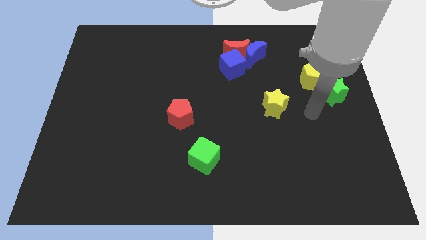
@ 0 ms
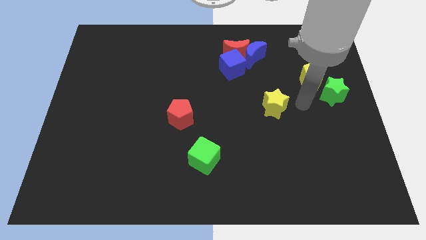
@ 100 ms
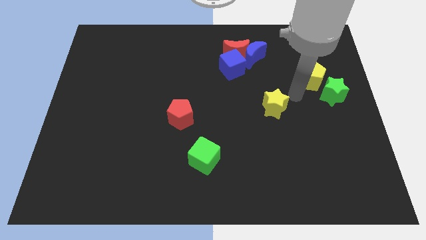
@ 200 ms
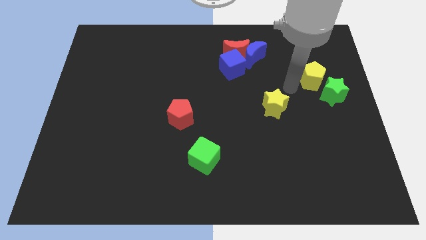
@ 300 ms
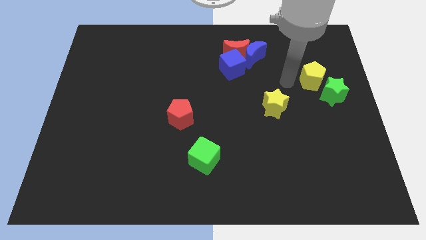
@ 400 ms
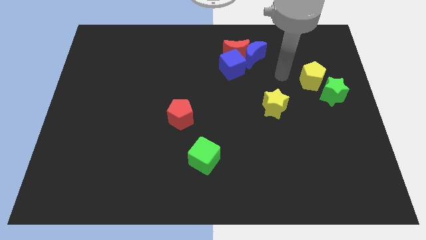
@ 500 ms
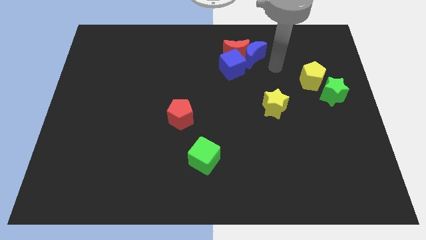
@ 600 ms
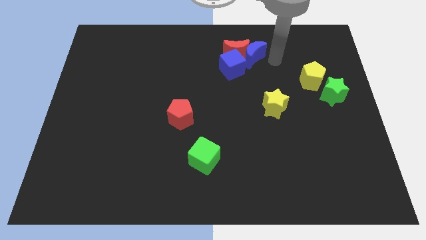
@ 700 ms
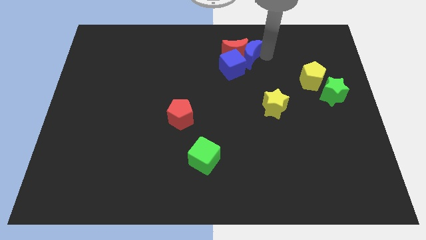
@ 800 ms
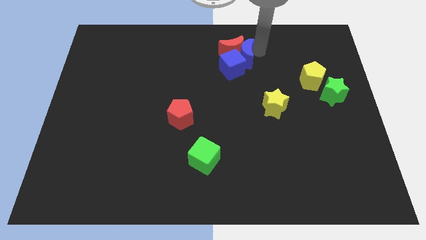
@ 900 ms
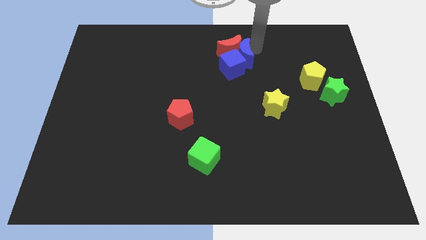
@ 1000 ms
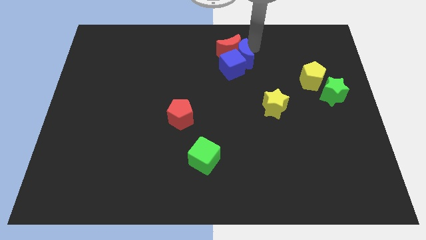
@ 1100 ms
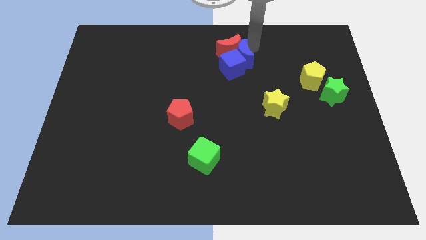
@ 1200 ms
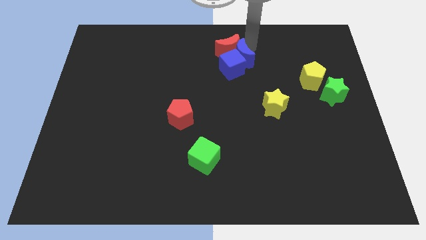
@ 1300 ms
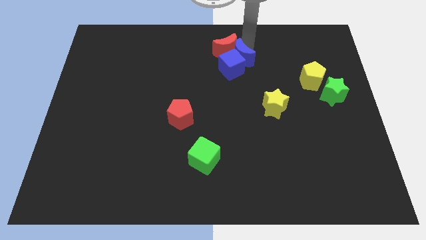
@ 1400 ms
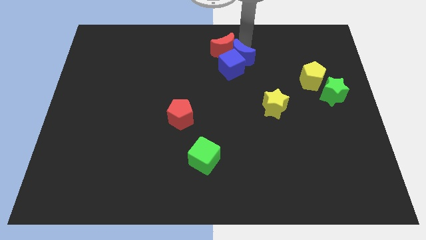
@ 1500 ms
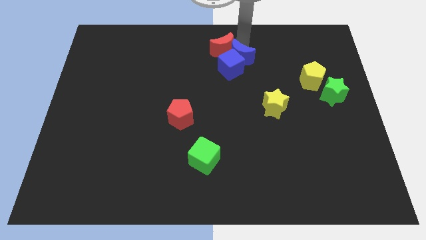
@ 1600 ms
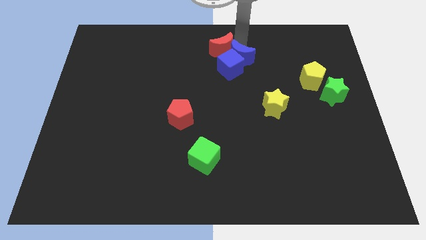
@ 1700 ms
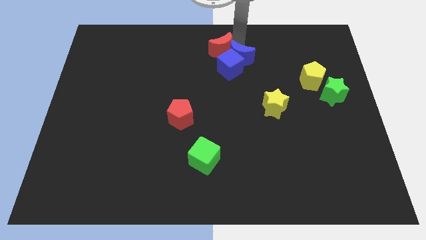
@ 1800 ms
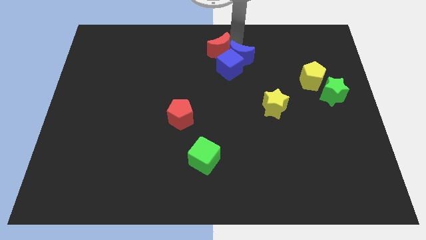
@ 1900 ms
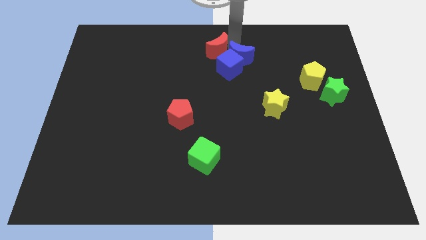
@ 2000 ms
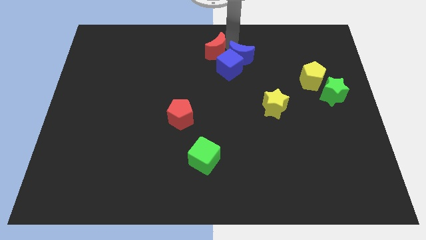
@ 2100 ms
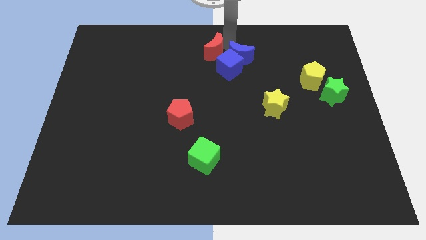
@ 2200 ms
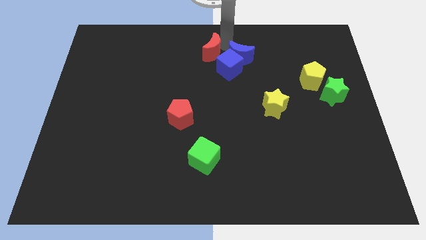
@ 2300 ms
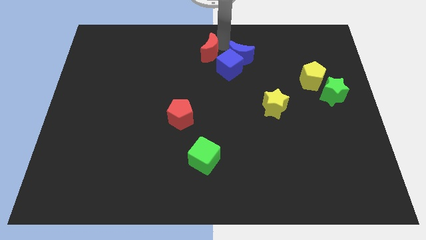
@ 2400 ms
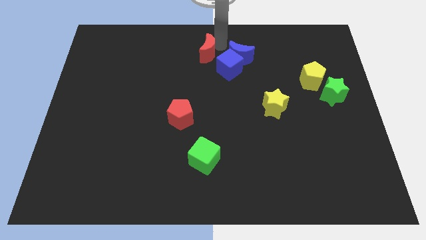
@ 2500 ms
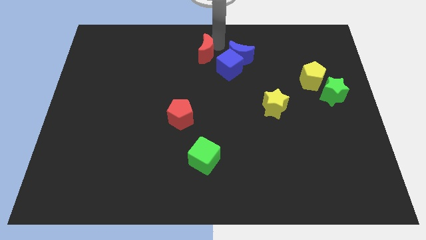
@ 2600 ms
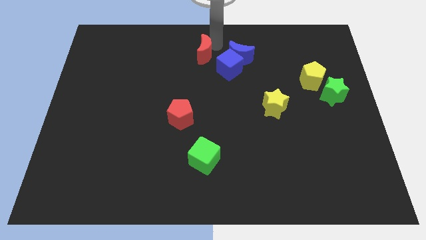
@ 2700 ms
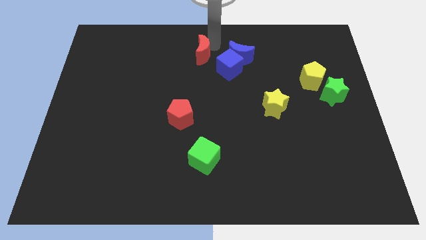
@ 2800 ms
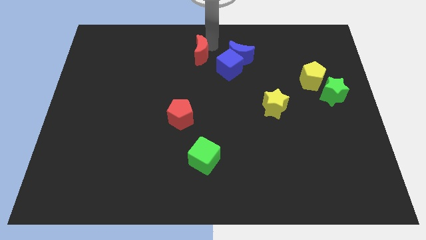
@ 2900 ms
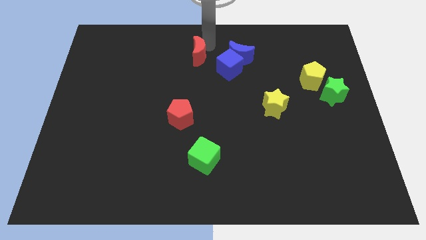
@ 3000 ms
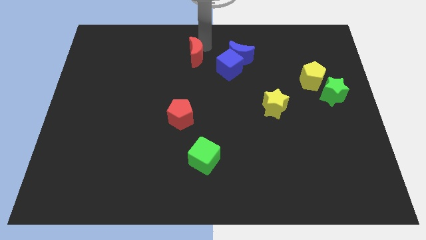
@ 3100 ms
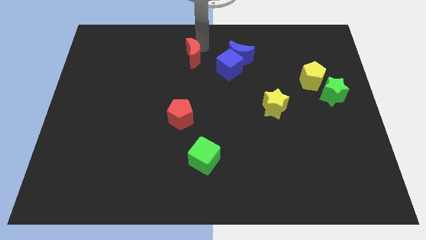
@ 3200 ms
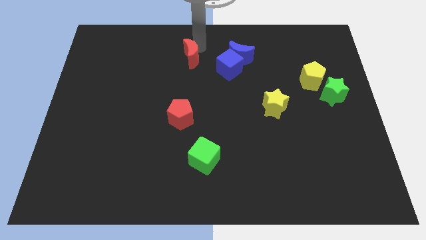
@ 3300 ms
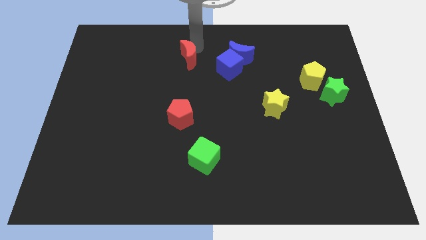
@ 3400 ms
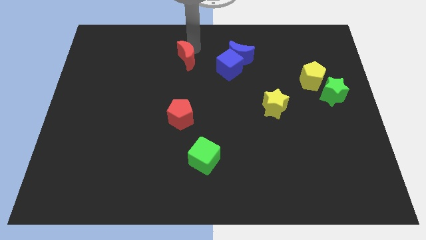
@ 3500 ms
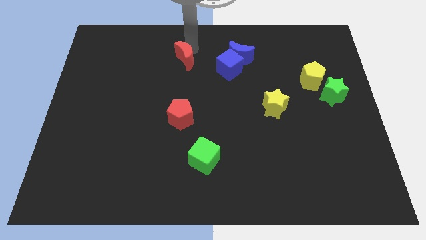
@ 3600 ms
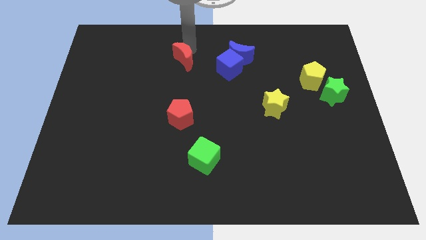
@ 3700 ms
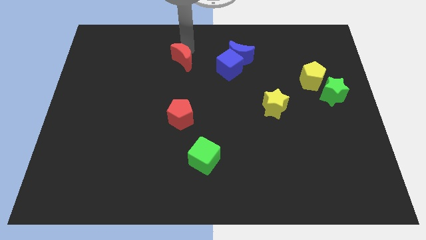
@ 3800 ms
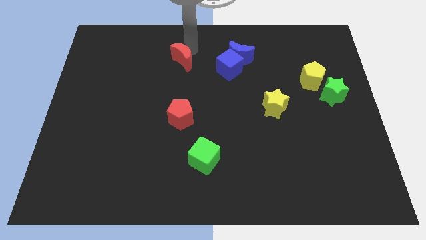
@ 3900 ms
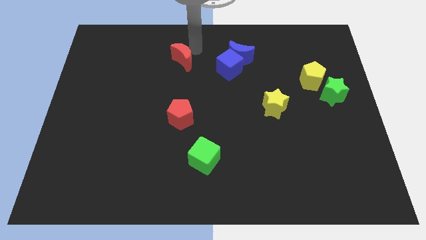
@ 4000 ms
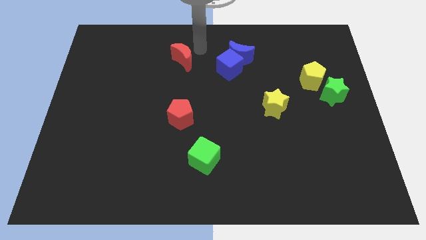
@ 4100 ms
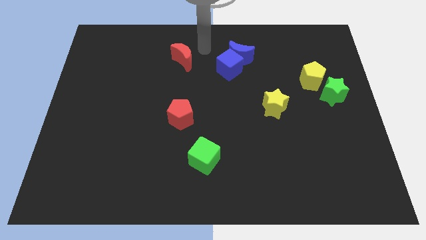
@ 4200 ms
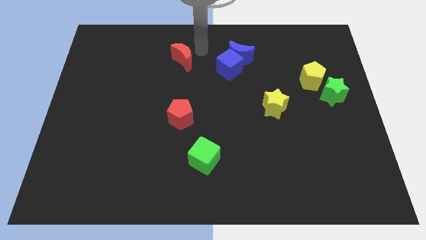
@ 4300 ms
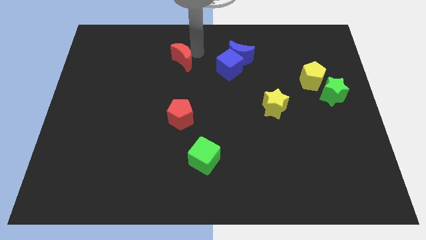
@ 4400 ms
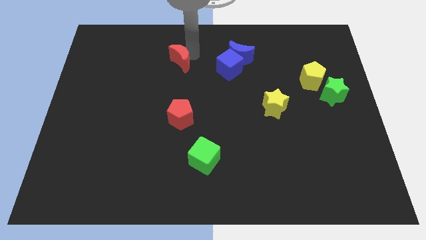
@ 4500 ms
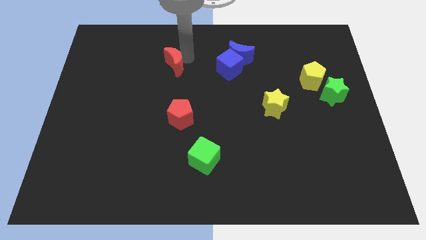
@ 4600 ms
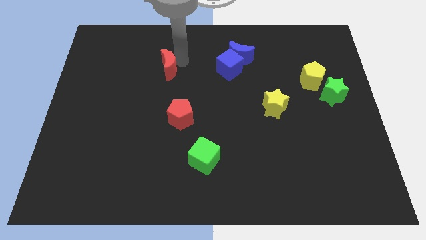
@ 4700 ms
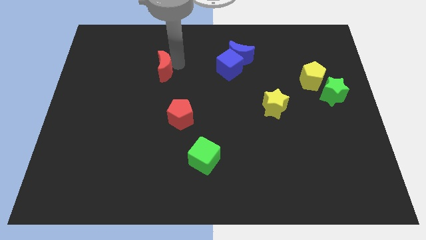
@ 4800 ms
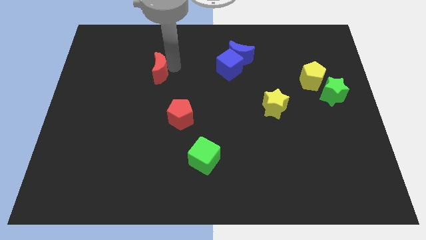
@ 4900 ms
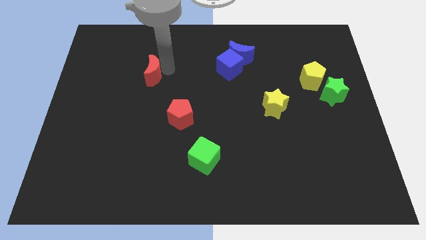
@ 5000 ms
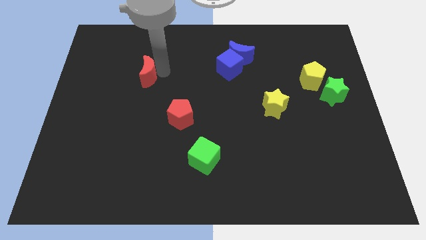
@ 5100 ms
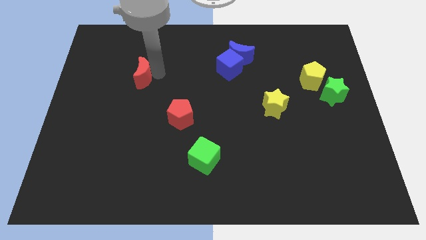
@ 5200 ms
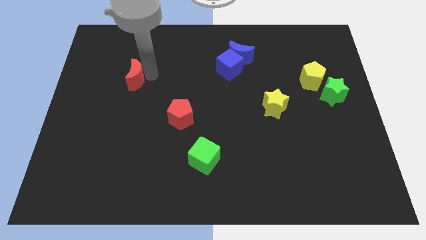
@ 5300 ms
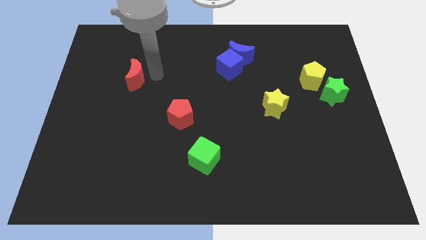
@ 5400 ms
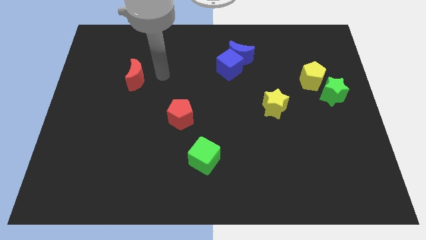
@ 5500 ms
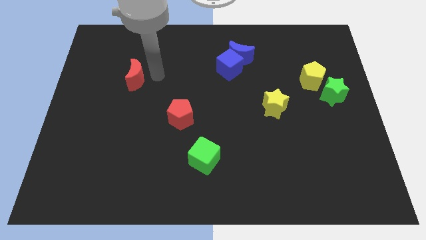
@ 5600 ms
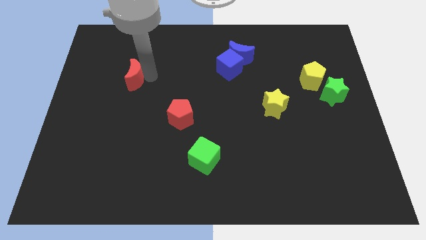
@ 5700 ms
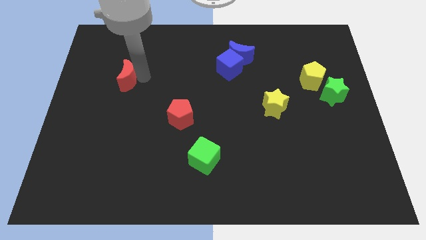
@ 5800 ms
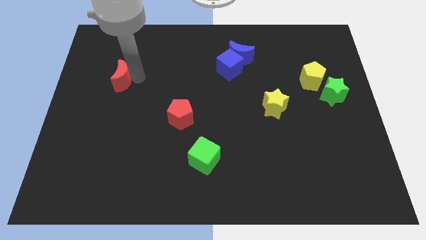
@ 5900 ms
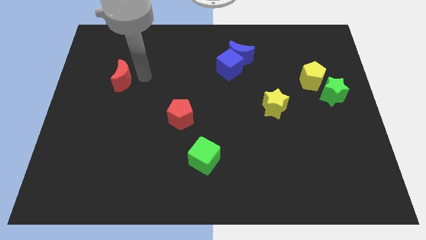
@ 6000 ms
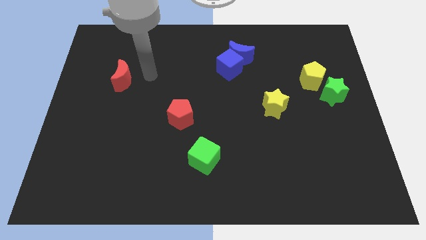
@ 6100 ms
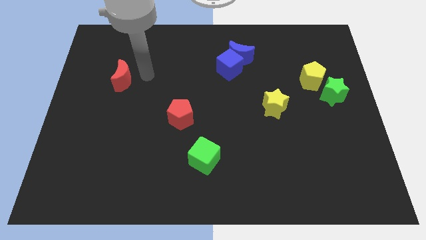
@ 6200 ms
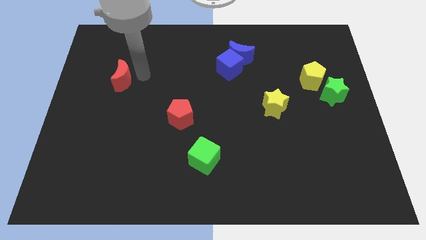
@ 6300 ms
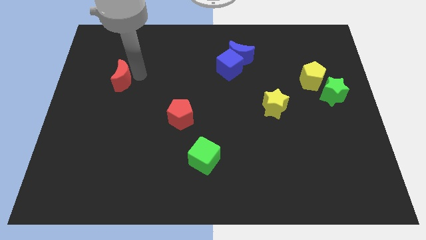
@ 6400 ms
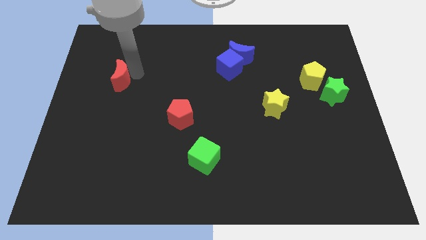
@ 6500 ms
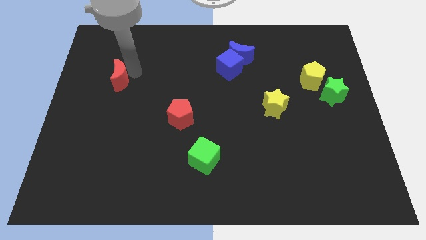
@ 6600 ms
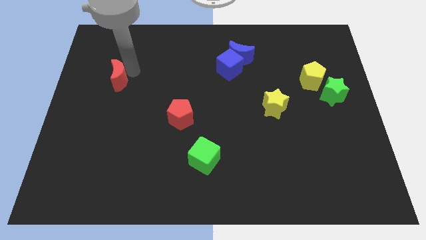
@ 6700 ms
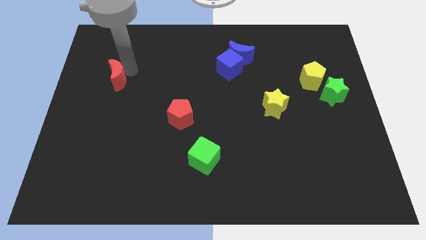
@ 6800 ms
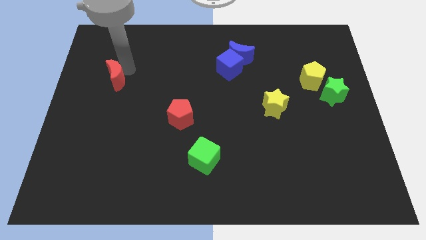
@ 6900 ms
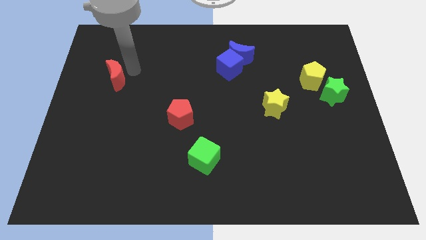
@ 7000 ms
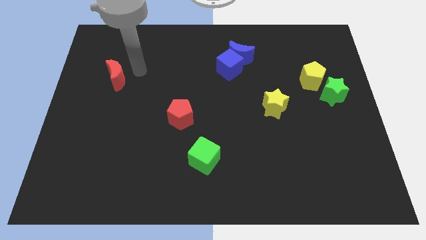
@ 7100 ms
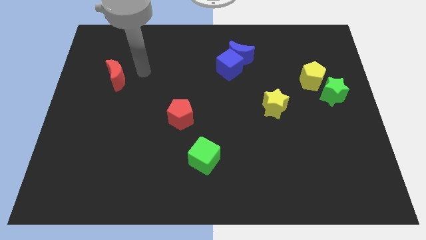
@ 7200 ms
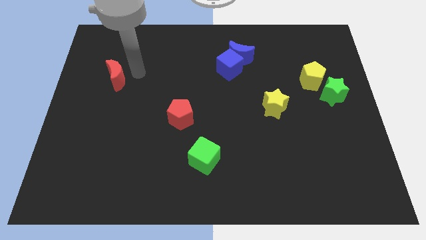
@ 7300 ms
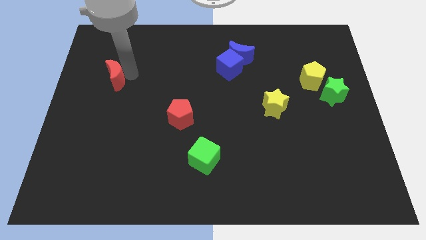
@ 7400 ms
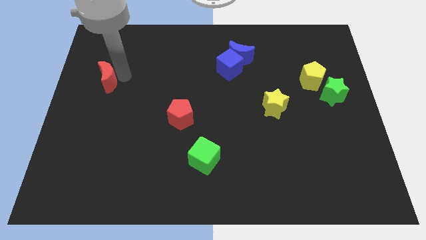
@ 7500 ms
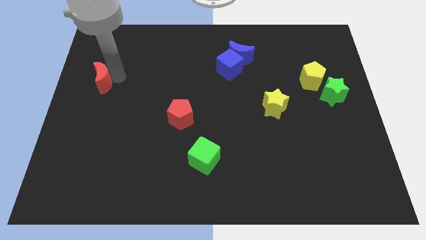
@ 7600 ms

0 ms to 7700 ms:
move the red moon to the left side of the board
